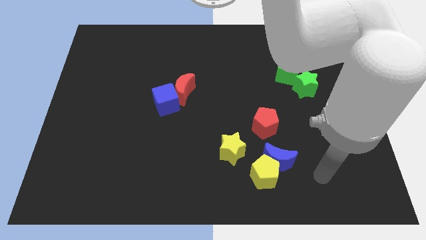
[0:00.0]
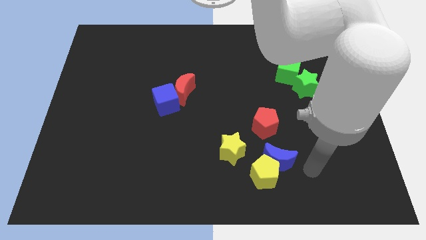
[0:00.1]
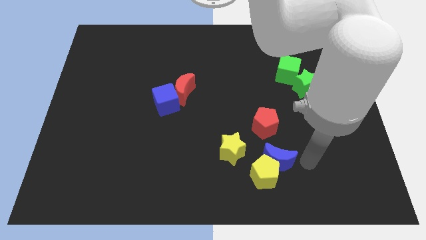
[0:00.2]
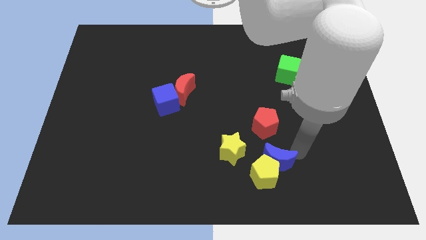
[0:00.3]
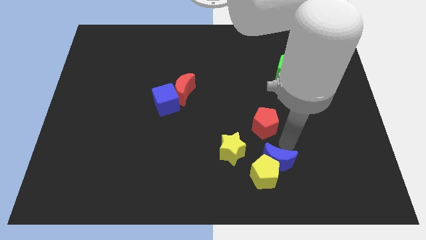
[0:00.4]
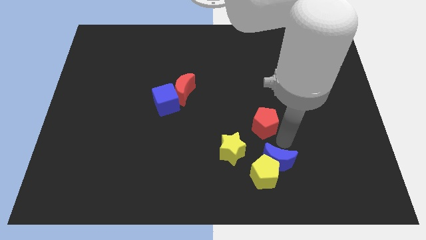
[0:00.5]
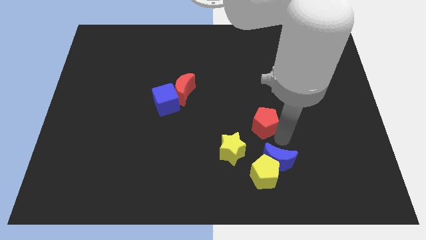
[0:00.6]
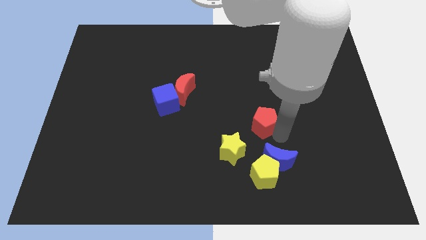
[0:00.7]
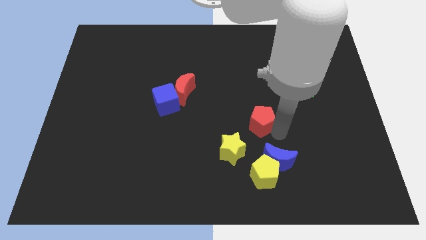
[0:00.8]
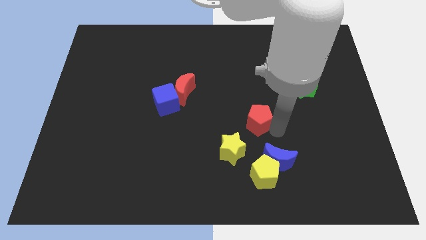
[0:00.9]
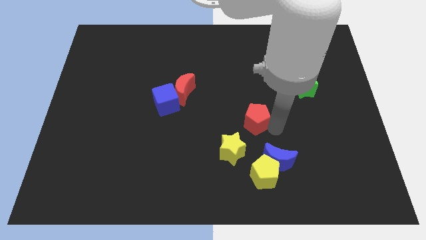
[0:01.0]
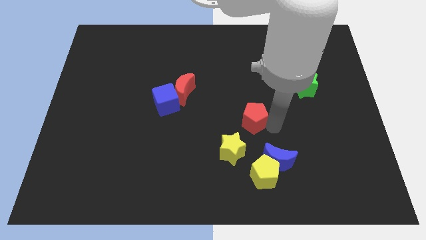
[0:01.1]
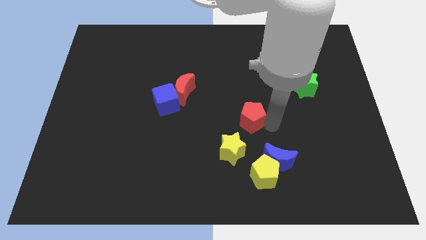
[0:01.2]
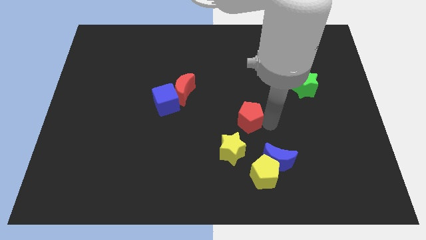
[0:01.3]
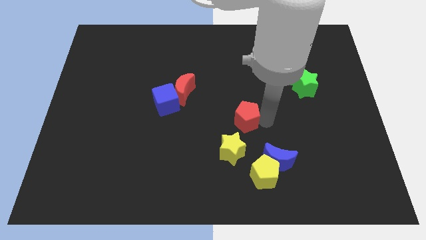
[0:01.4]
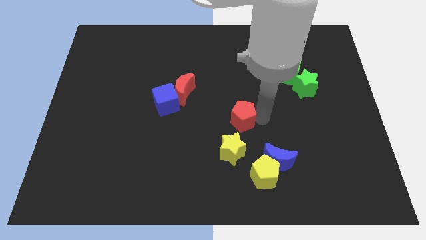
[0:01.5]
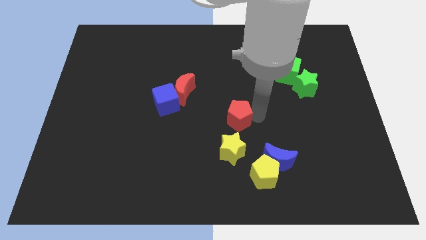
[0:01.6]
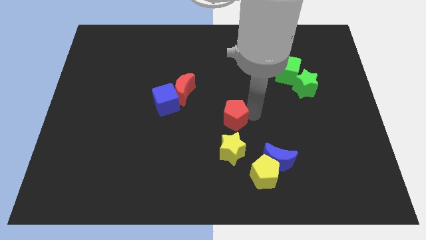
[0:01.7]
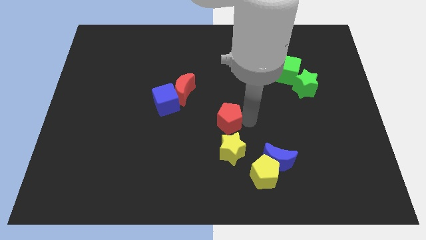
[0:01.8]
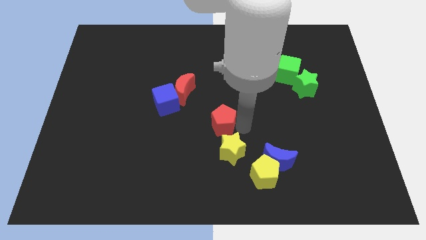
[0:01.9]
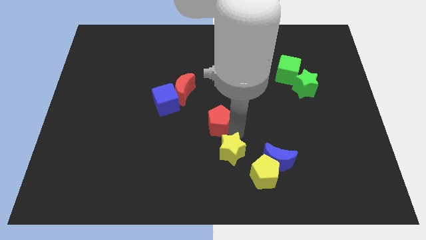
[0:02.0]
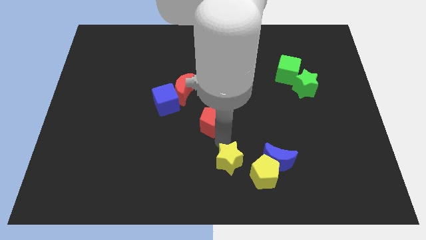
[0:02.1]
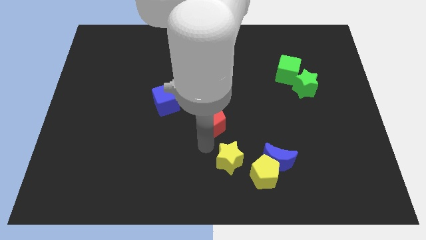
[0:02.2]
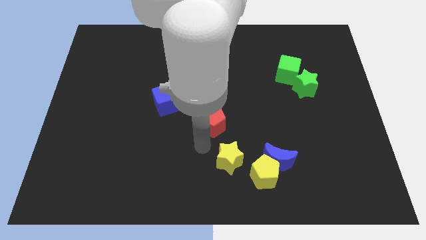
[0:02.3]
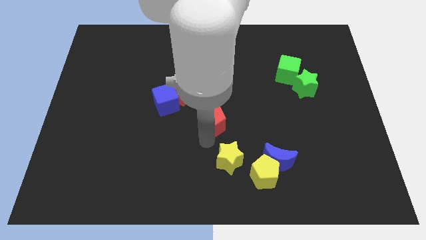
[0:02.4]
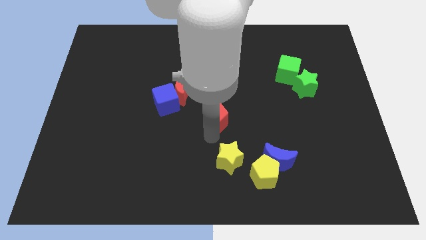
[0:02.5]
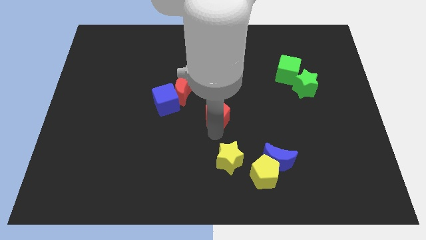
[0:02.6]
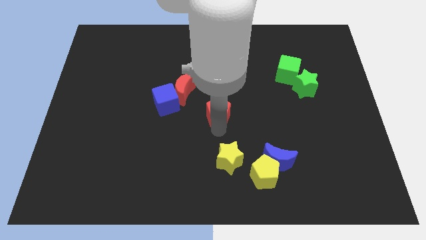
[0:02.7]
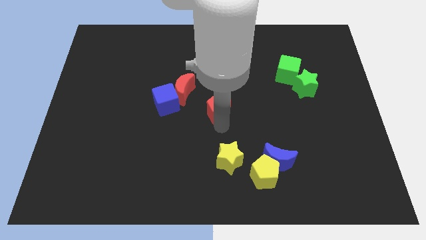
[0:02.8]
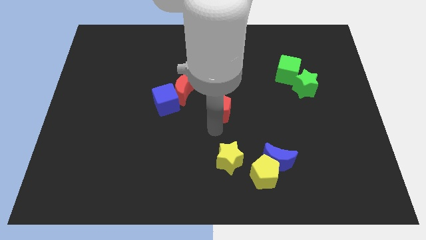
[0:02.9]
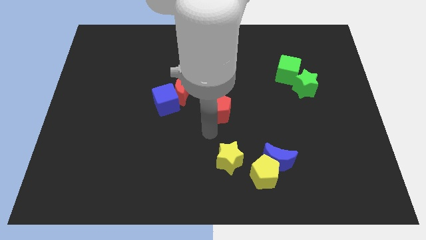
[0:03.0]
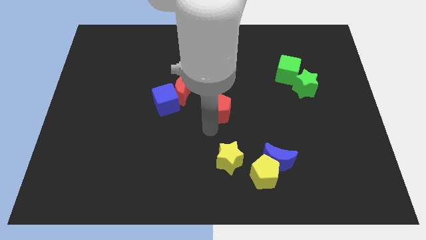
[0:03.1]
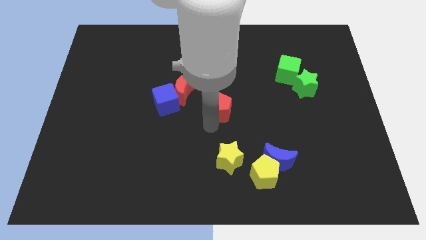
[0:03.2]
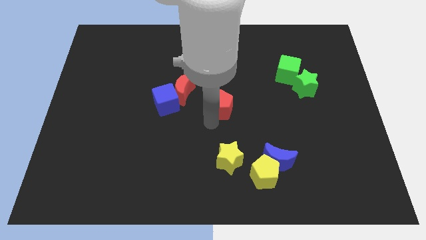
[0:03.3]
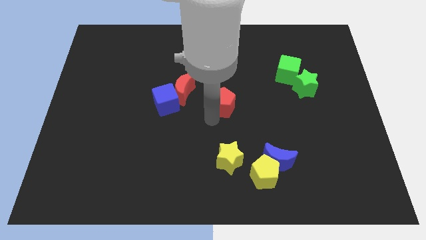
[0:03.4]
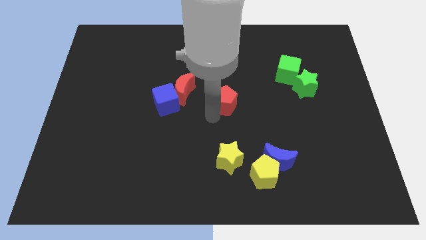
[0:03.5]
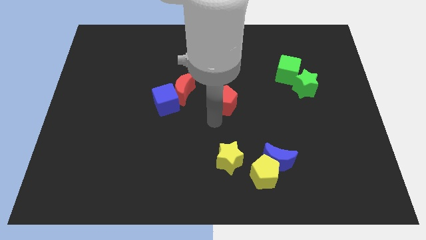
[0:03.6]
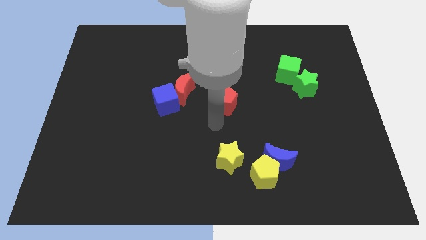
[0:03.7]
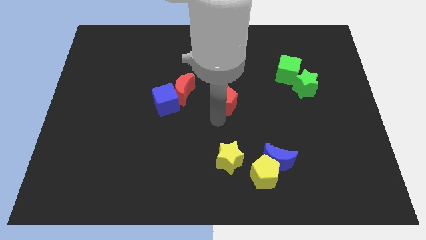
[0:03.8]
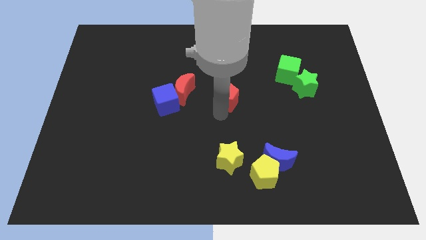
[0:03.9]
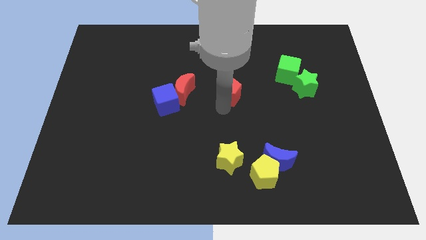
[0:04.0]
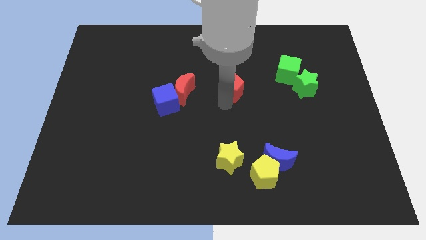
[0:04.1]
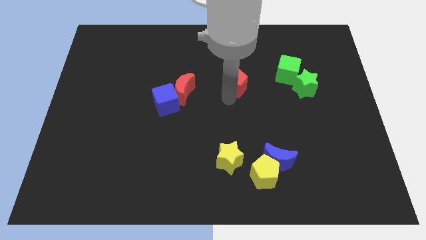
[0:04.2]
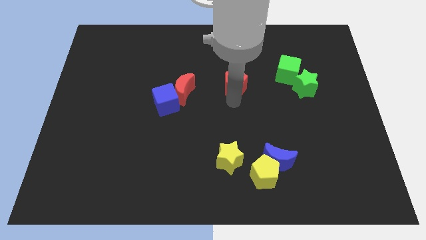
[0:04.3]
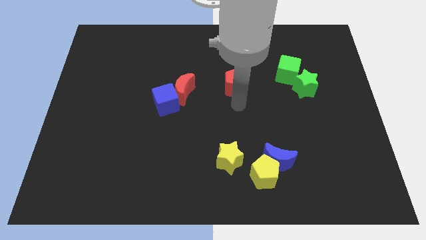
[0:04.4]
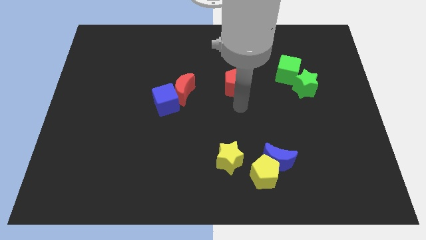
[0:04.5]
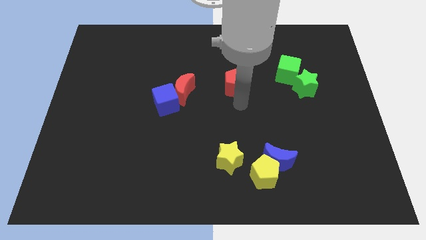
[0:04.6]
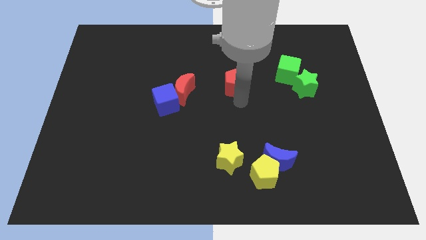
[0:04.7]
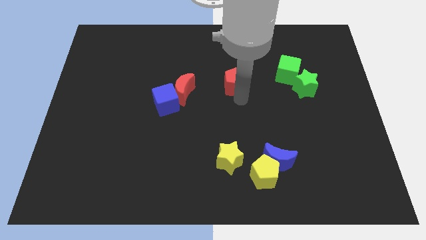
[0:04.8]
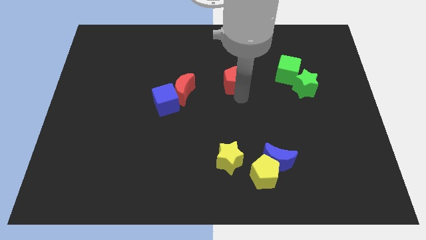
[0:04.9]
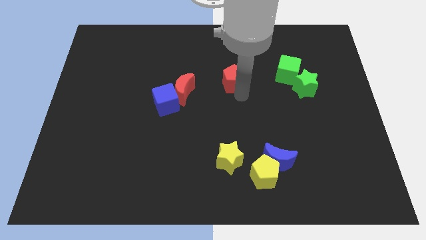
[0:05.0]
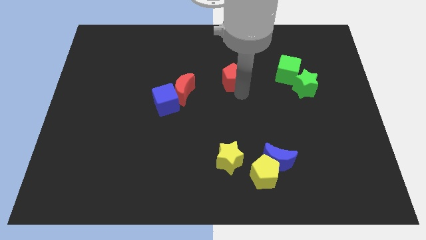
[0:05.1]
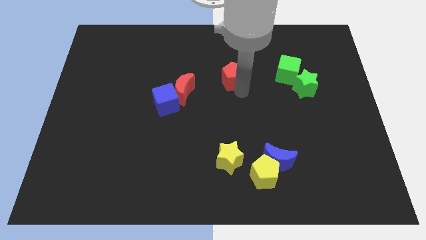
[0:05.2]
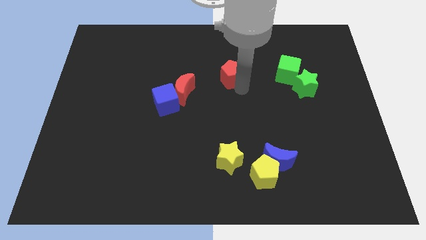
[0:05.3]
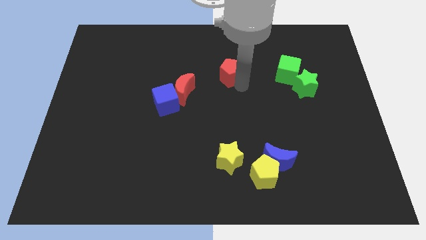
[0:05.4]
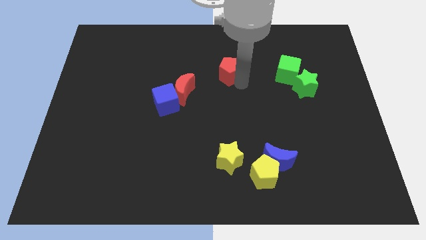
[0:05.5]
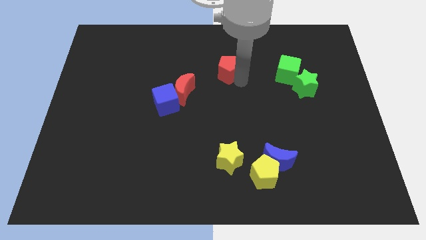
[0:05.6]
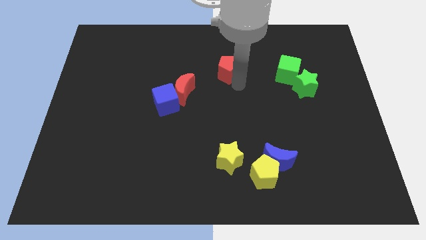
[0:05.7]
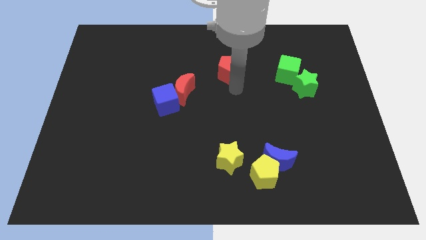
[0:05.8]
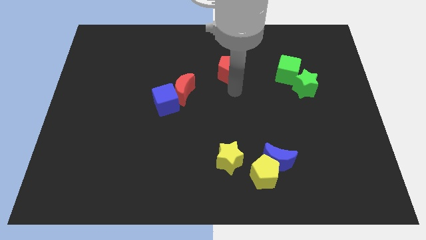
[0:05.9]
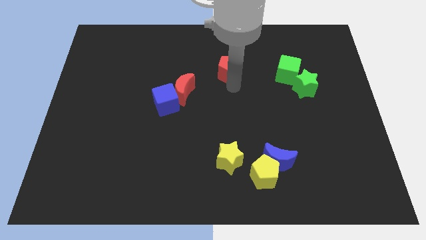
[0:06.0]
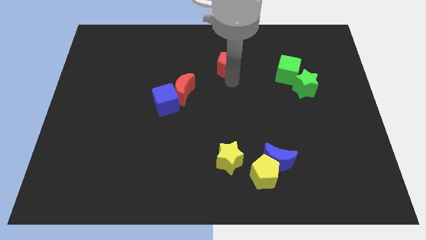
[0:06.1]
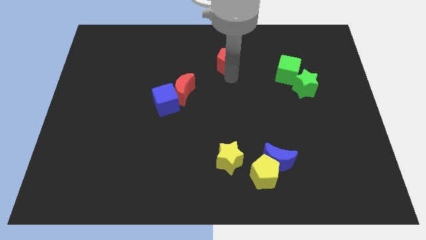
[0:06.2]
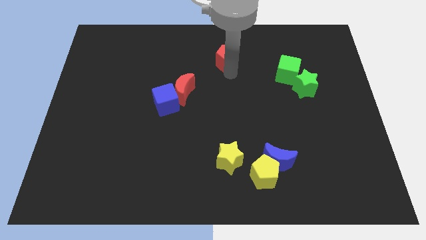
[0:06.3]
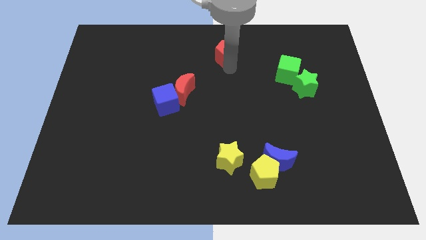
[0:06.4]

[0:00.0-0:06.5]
put the red pentagon to the towards your base
